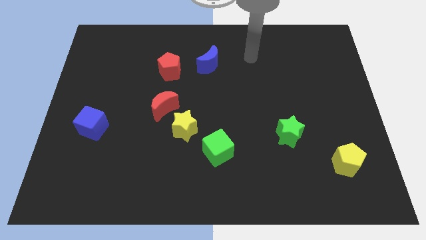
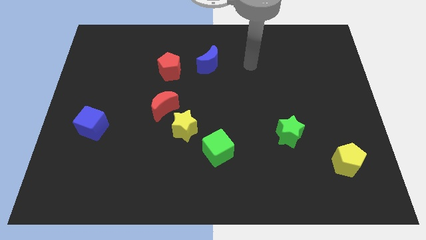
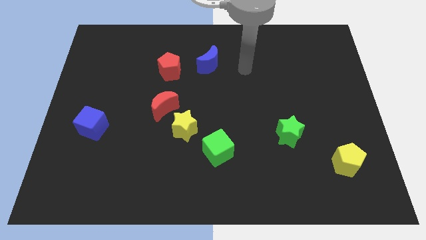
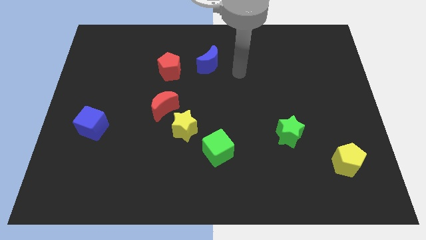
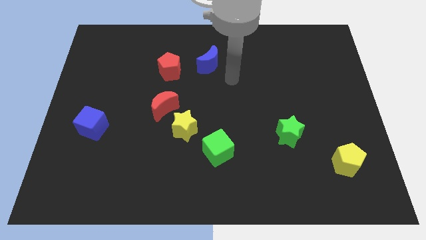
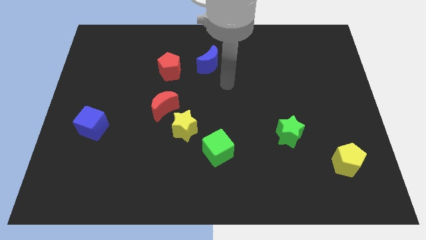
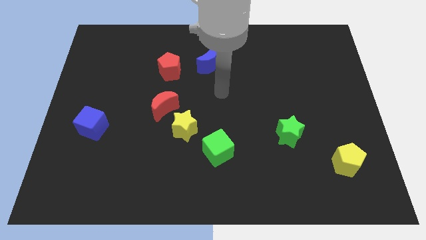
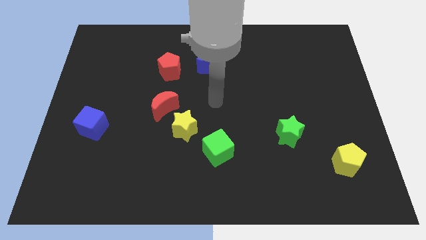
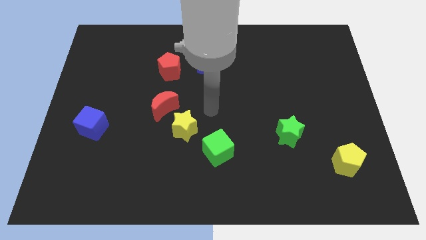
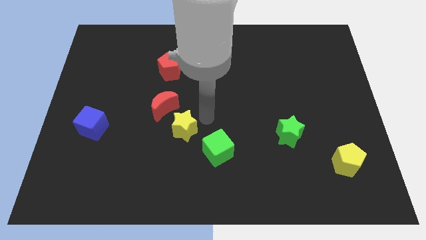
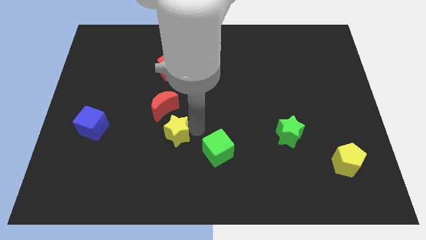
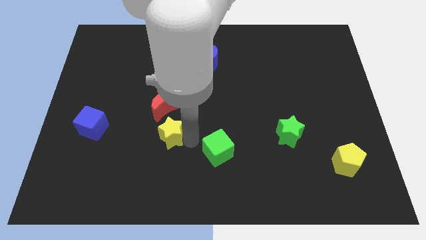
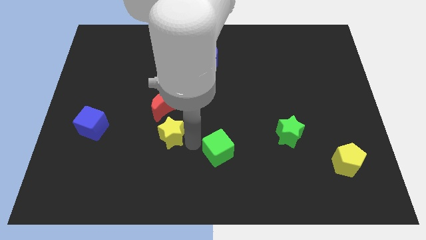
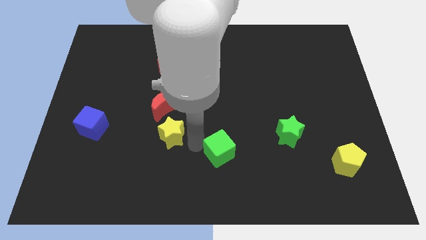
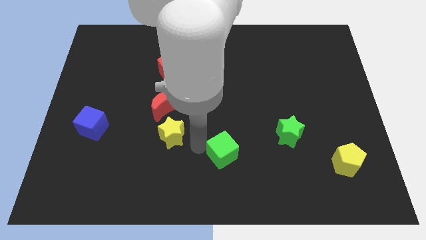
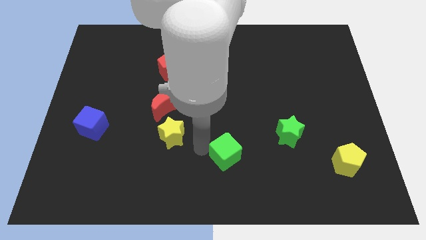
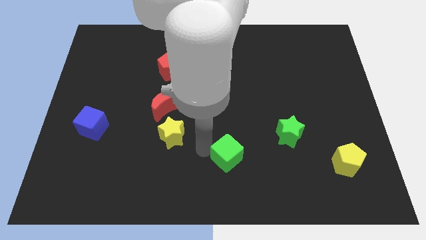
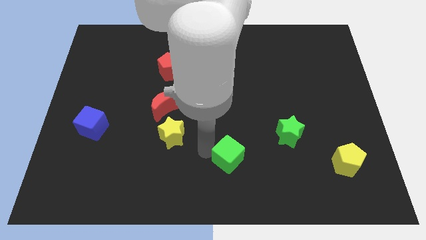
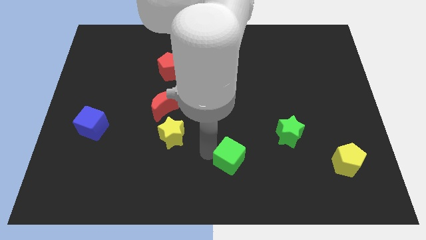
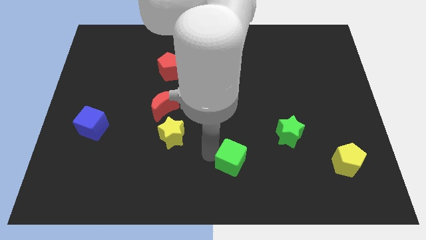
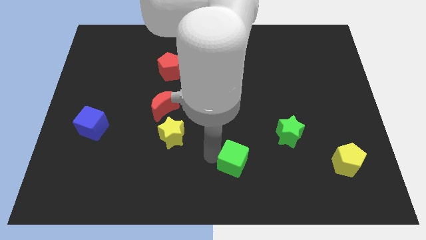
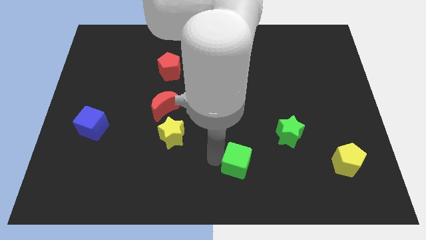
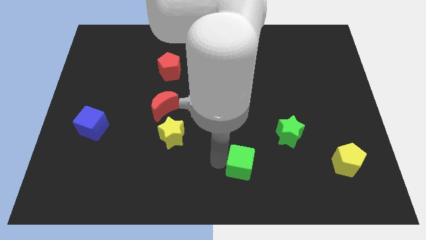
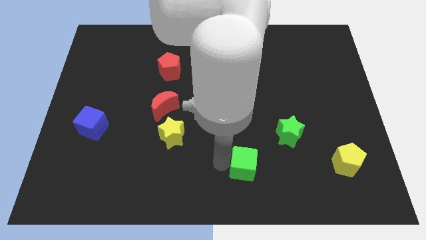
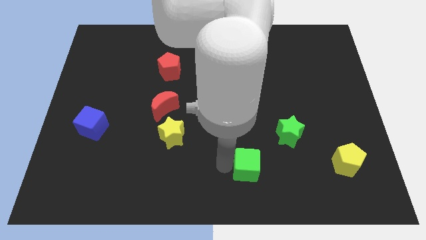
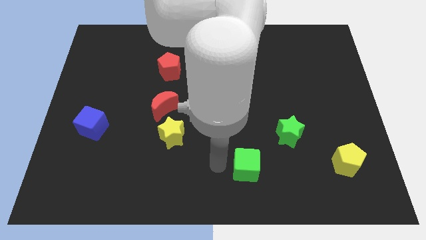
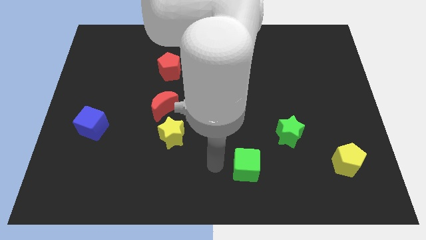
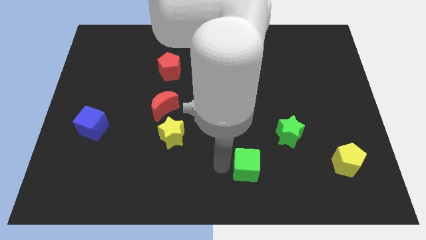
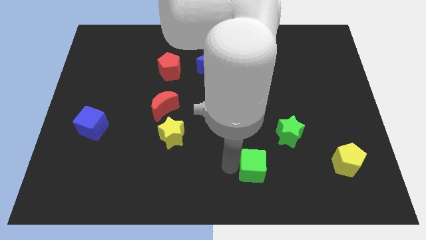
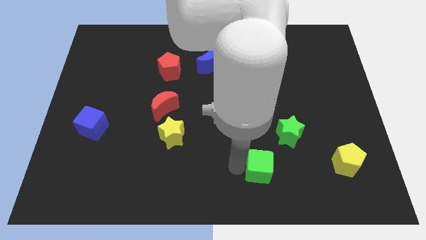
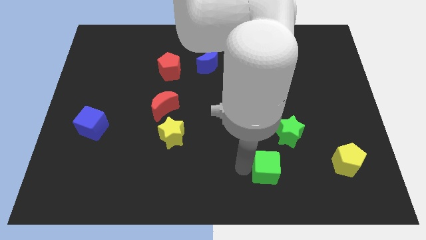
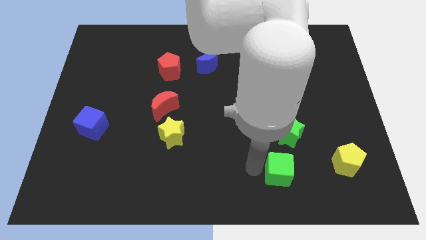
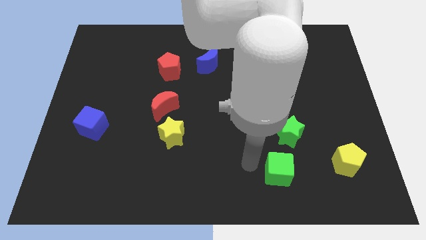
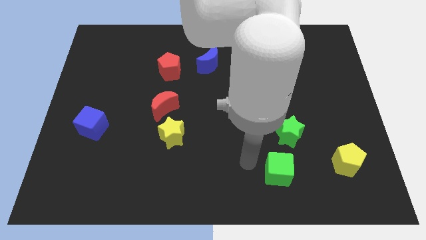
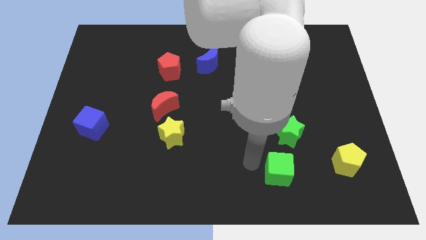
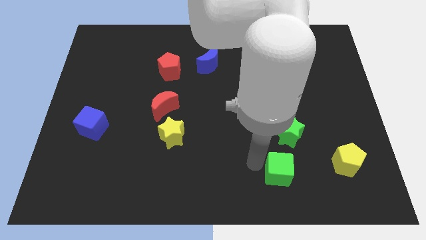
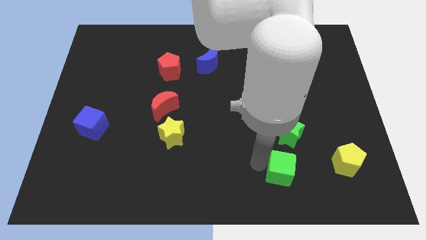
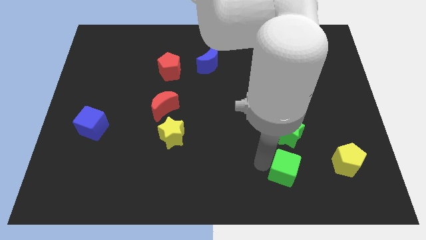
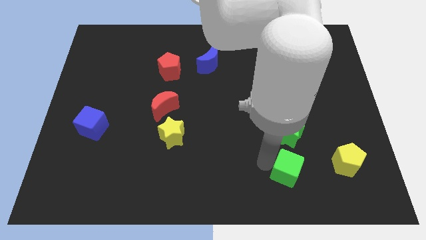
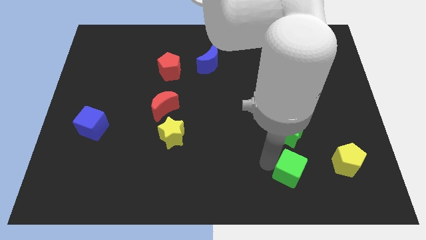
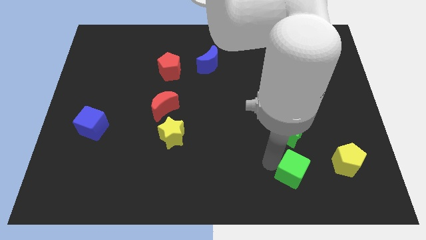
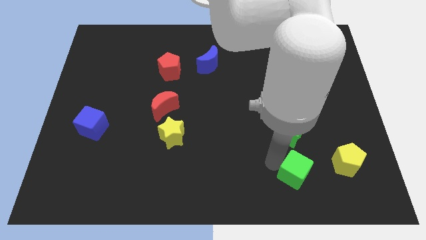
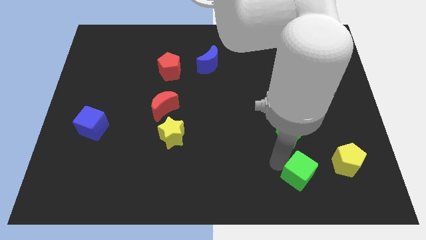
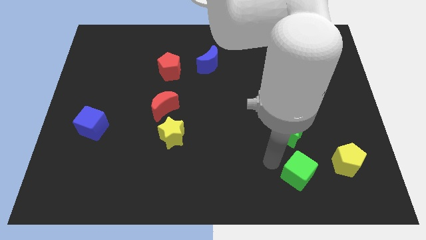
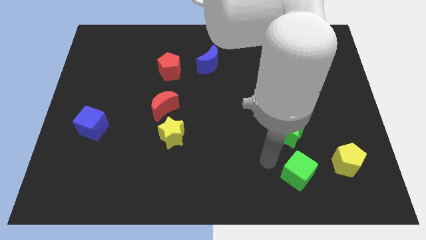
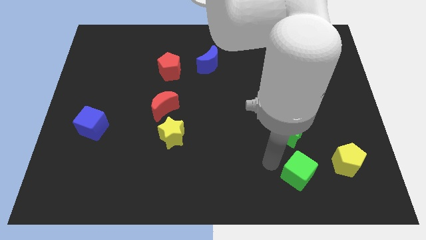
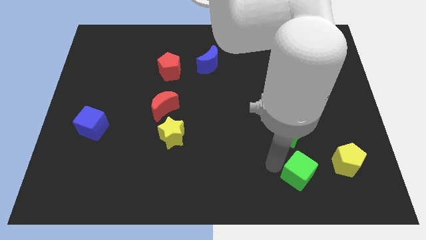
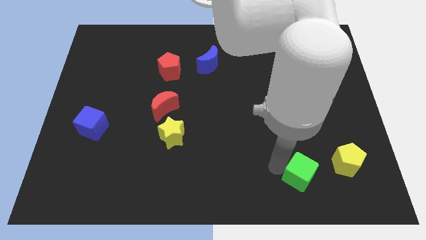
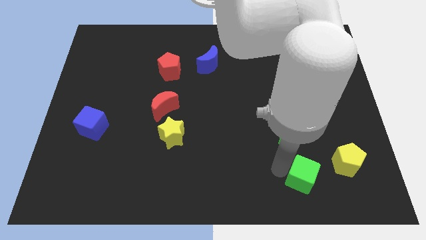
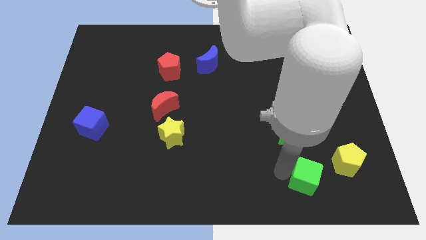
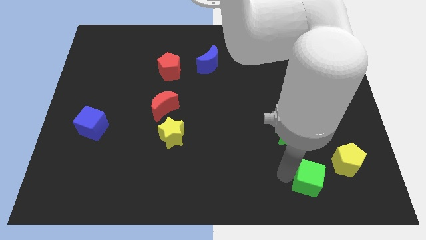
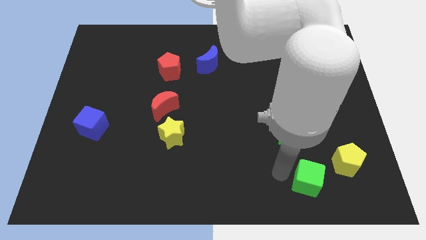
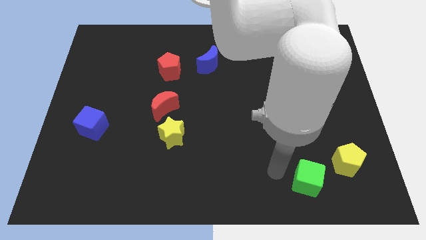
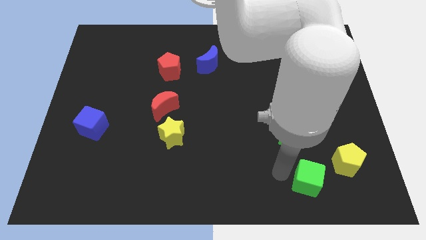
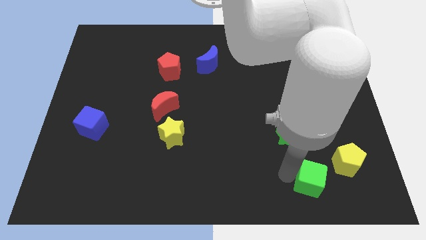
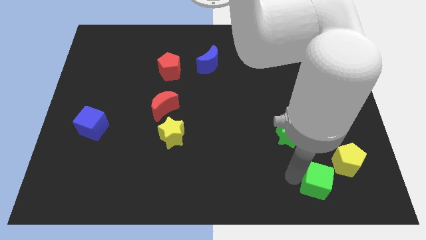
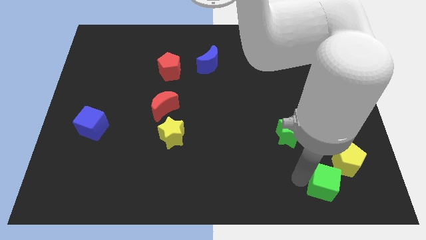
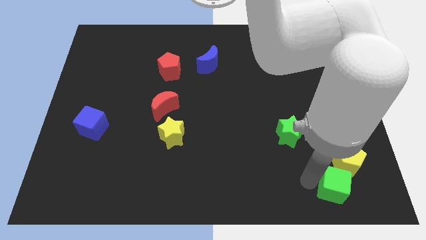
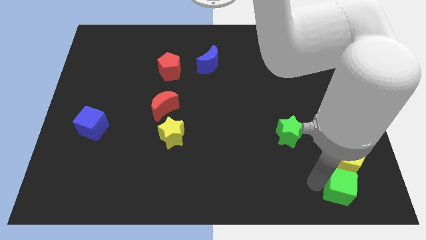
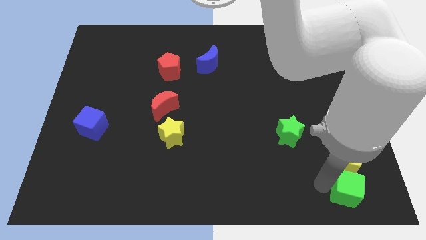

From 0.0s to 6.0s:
put the green cube to the bottom right corner
